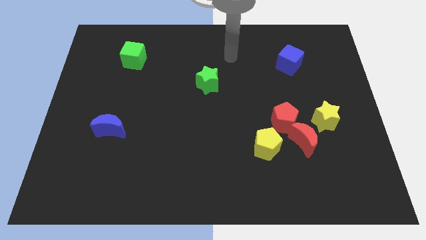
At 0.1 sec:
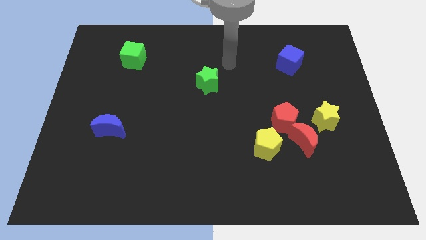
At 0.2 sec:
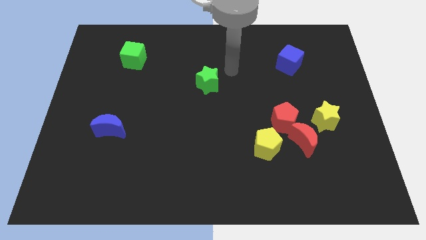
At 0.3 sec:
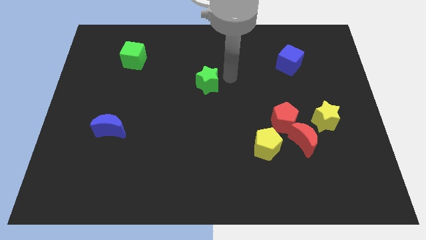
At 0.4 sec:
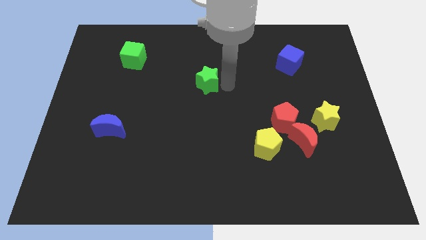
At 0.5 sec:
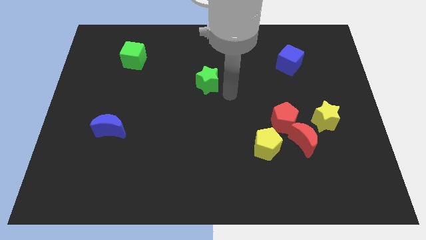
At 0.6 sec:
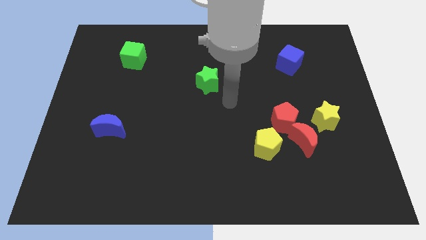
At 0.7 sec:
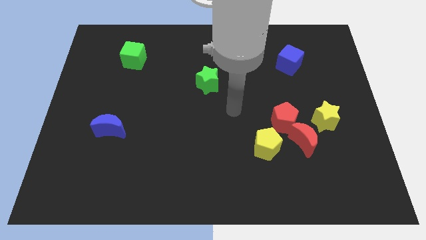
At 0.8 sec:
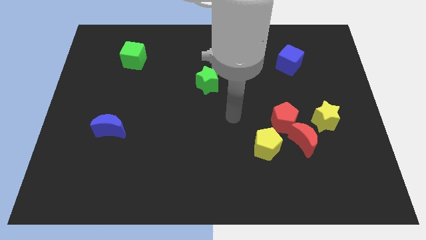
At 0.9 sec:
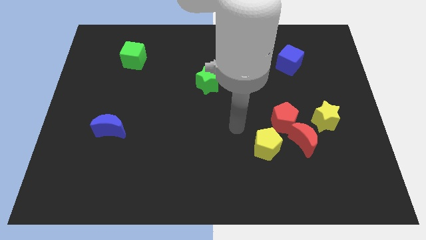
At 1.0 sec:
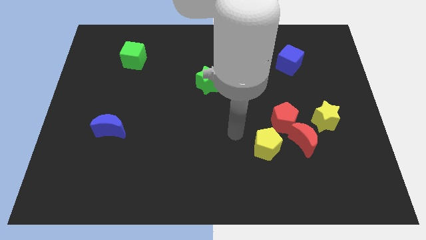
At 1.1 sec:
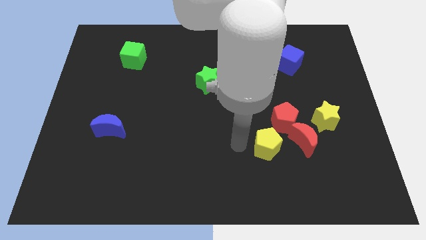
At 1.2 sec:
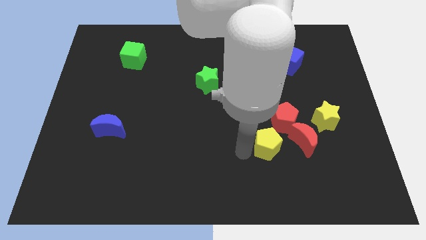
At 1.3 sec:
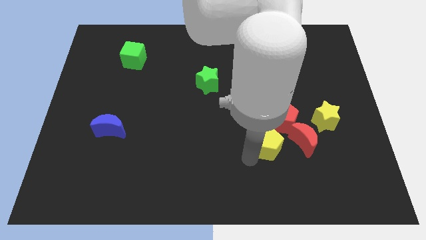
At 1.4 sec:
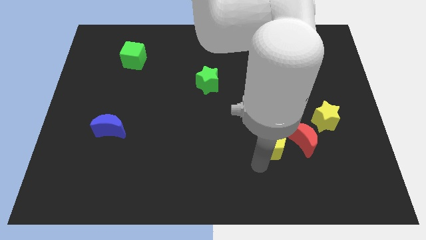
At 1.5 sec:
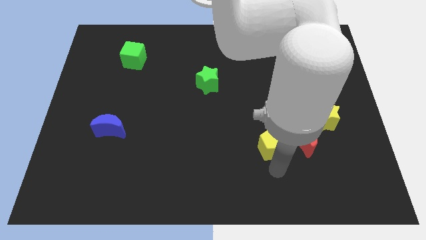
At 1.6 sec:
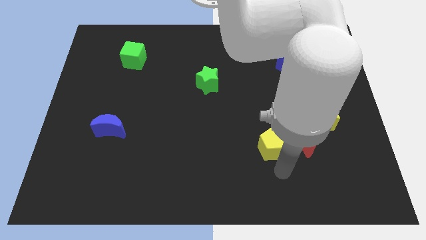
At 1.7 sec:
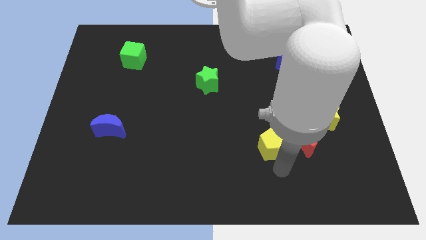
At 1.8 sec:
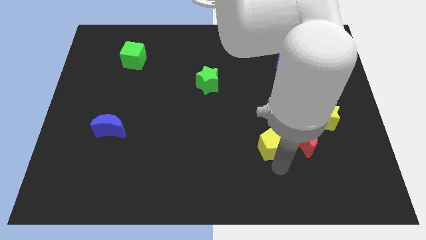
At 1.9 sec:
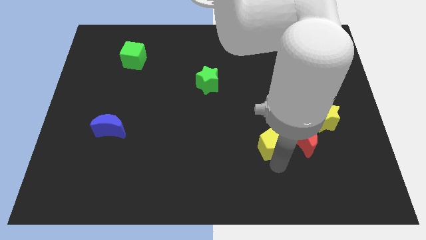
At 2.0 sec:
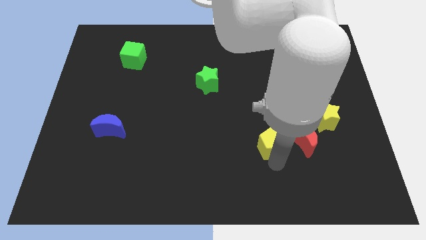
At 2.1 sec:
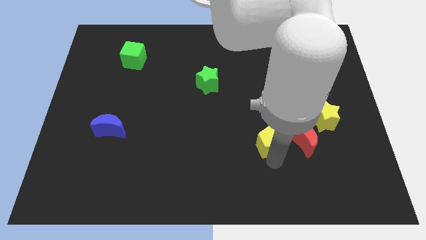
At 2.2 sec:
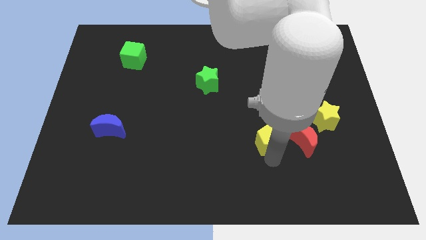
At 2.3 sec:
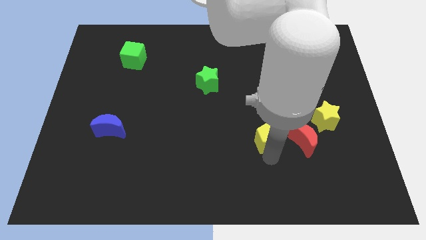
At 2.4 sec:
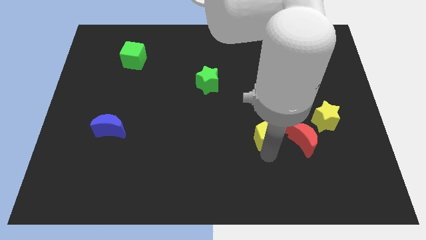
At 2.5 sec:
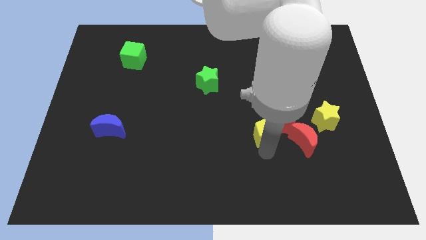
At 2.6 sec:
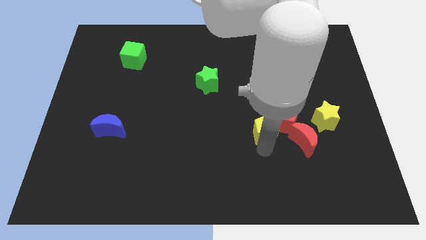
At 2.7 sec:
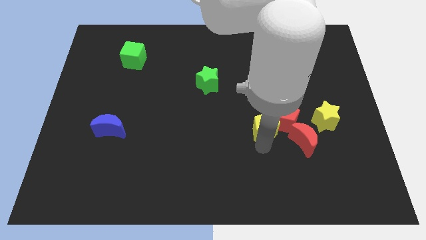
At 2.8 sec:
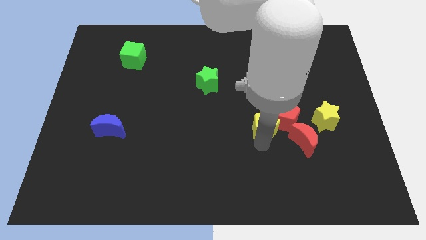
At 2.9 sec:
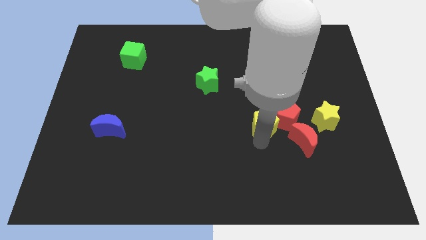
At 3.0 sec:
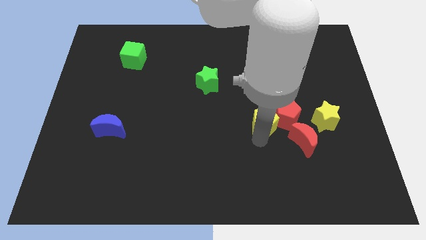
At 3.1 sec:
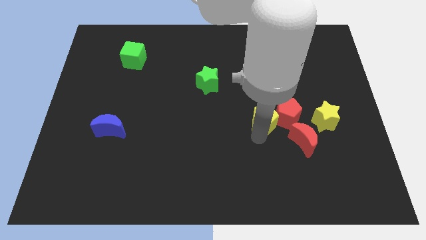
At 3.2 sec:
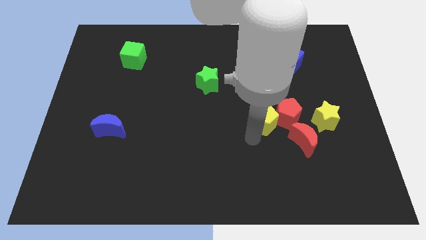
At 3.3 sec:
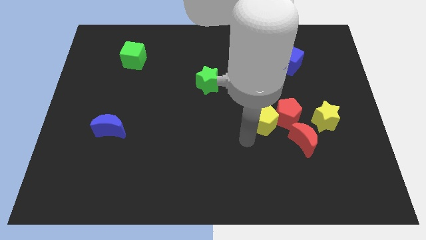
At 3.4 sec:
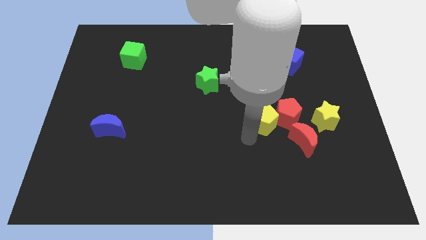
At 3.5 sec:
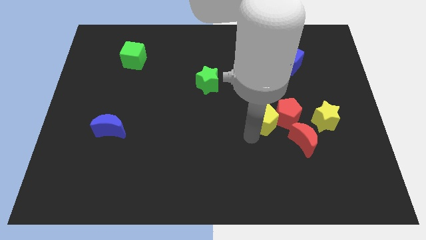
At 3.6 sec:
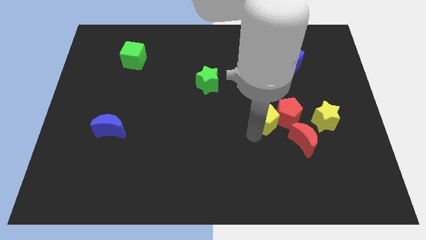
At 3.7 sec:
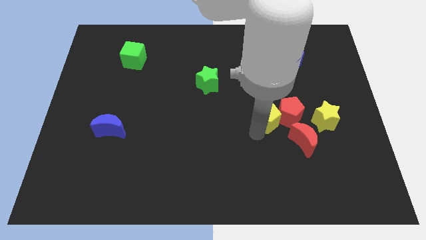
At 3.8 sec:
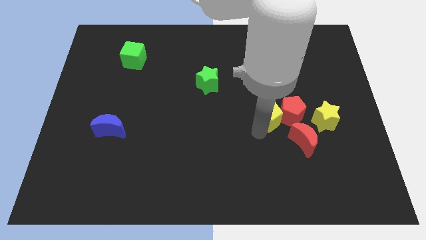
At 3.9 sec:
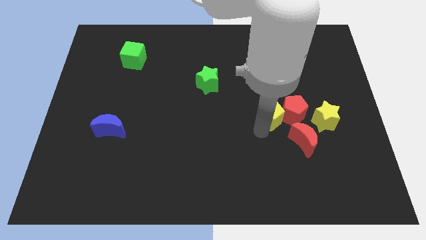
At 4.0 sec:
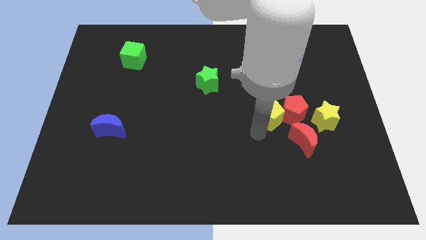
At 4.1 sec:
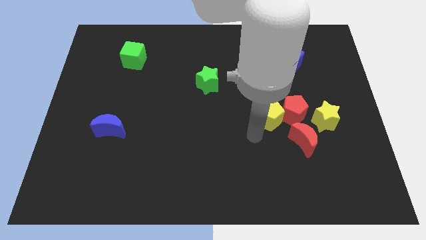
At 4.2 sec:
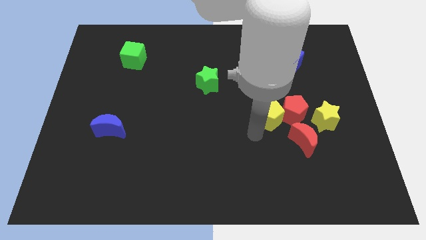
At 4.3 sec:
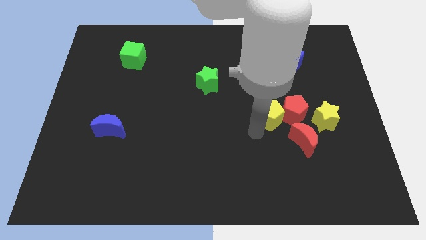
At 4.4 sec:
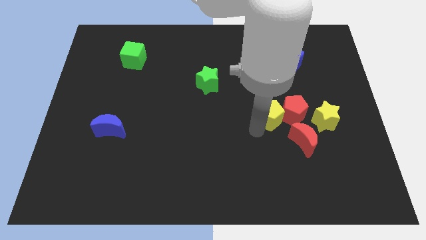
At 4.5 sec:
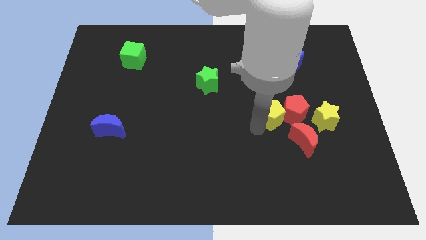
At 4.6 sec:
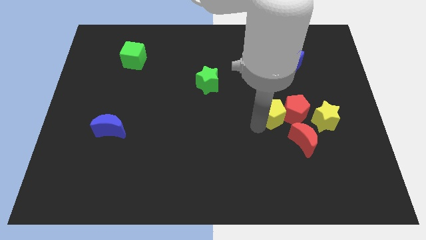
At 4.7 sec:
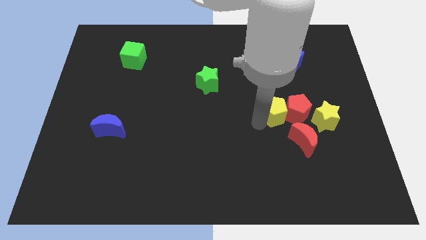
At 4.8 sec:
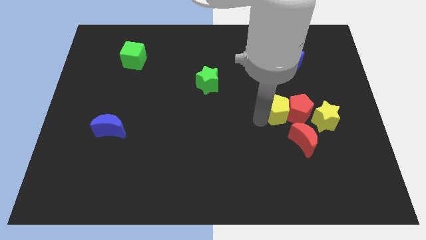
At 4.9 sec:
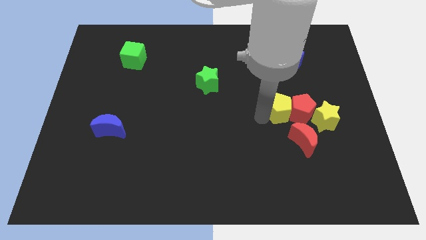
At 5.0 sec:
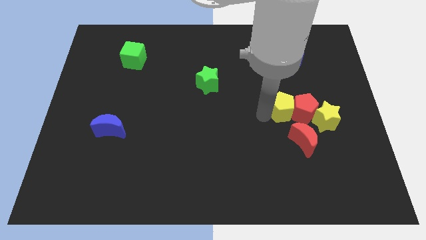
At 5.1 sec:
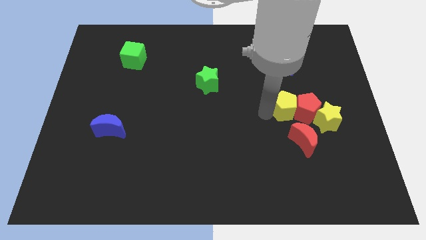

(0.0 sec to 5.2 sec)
put the yellow pentagon to the bottom of the blue cube

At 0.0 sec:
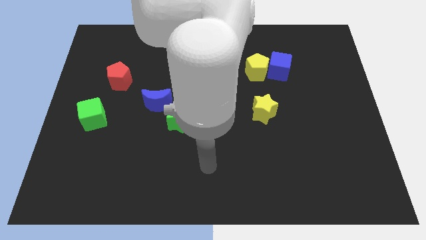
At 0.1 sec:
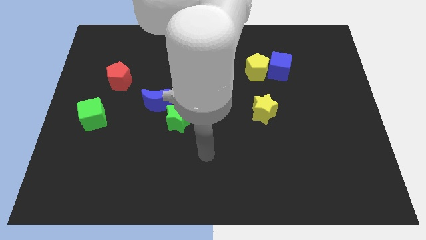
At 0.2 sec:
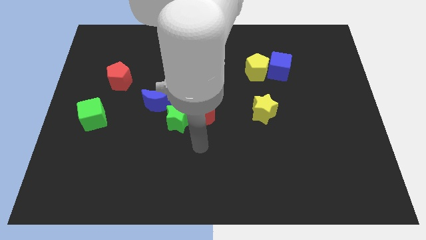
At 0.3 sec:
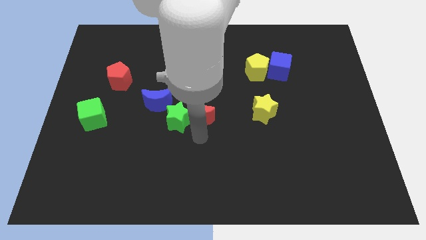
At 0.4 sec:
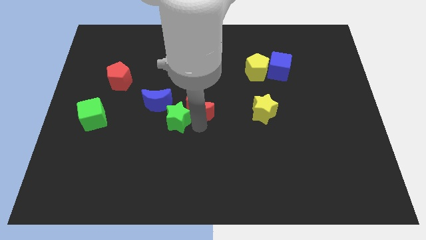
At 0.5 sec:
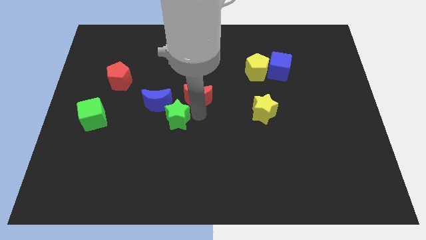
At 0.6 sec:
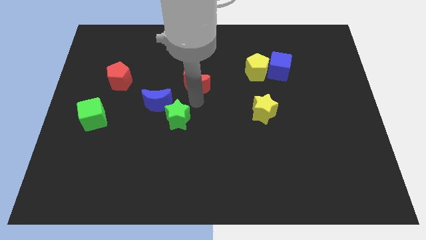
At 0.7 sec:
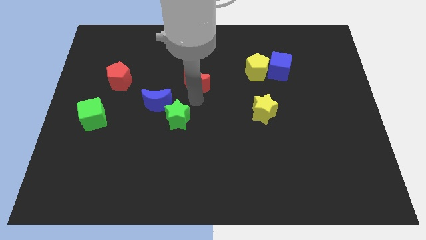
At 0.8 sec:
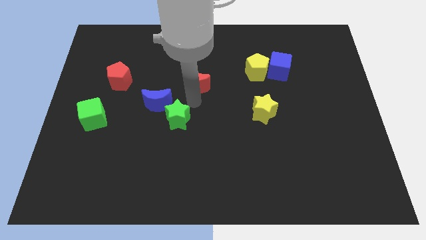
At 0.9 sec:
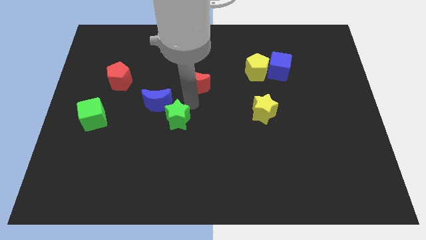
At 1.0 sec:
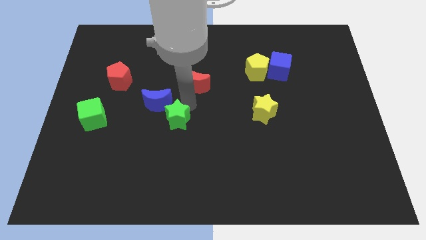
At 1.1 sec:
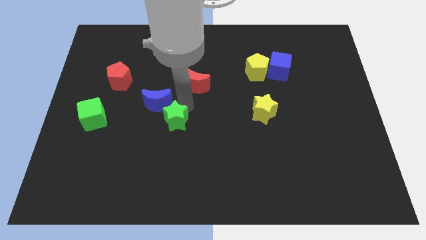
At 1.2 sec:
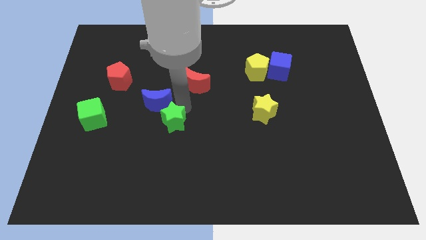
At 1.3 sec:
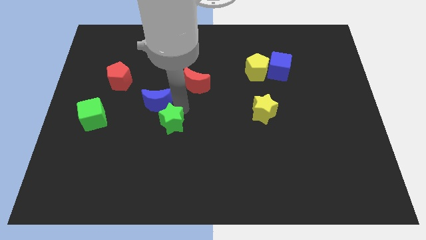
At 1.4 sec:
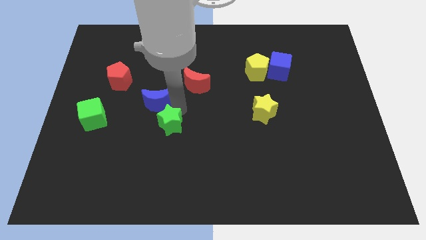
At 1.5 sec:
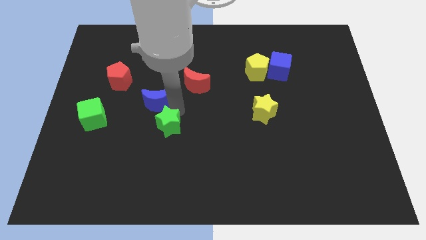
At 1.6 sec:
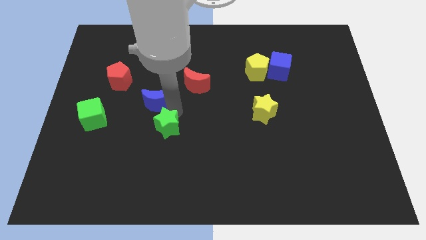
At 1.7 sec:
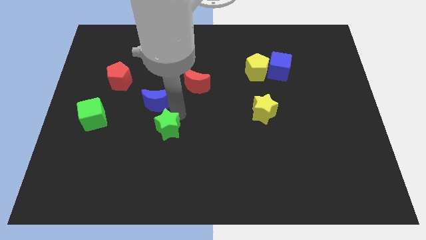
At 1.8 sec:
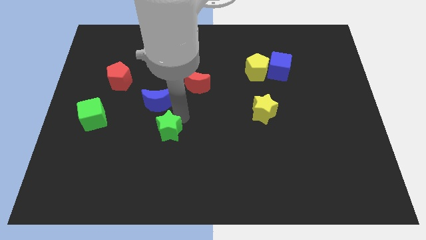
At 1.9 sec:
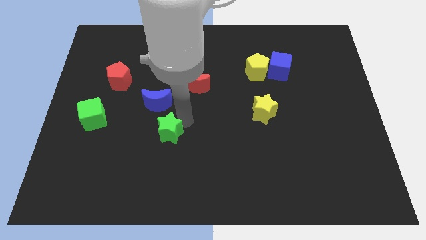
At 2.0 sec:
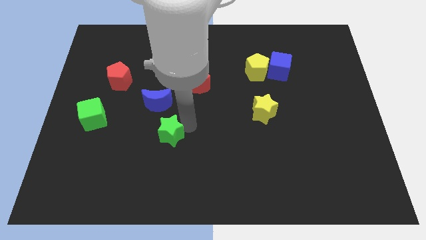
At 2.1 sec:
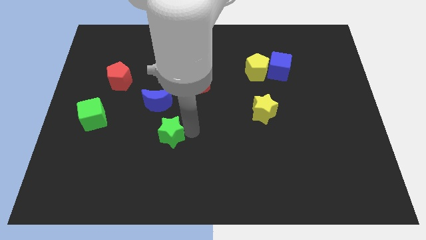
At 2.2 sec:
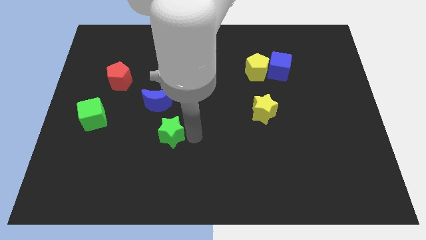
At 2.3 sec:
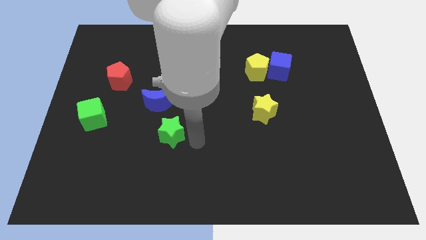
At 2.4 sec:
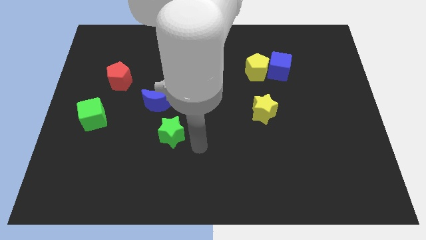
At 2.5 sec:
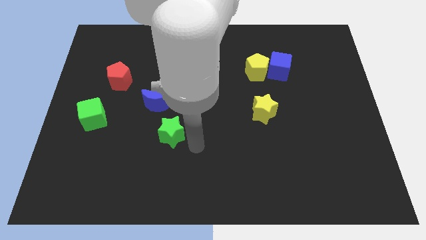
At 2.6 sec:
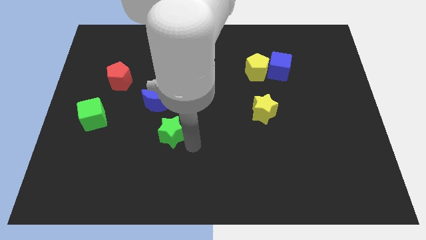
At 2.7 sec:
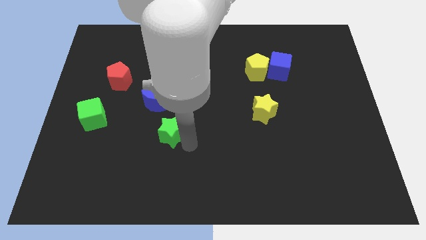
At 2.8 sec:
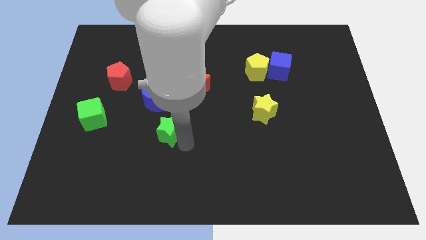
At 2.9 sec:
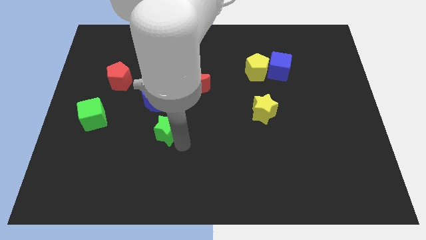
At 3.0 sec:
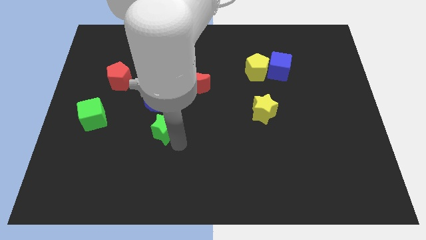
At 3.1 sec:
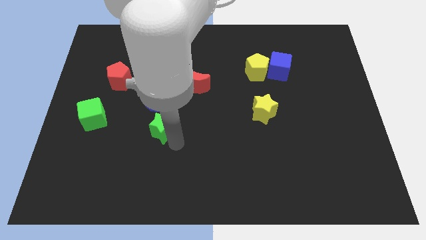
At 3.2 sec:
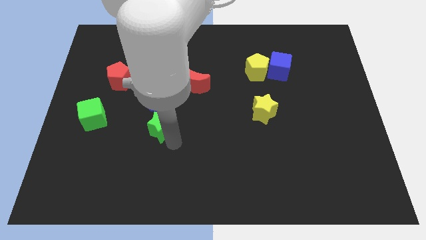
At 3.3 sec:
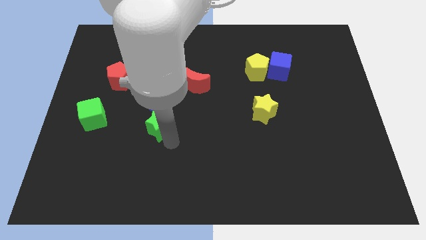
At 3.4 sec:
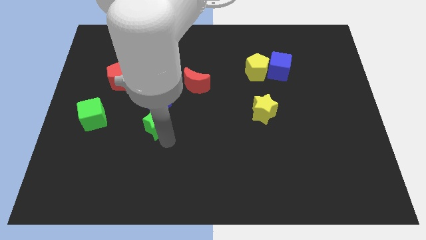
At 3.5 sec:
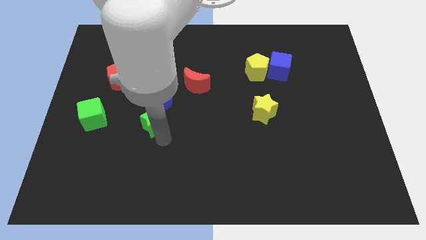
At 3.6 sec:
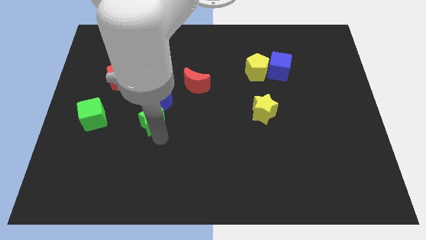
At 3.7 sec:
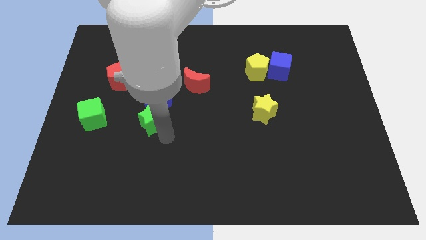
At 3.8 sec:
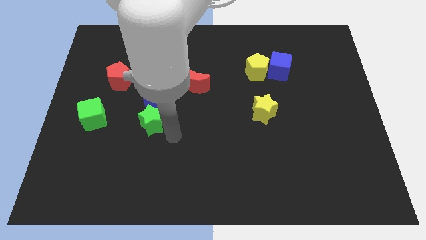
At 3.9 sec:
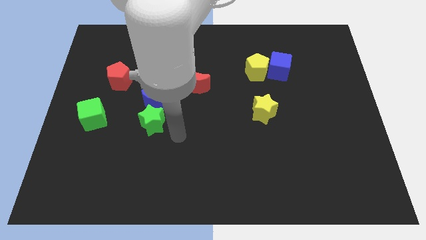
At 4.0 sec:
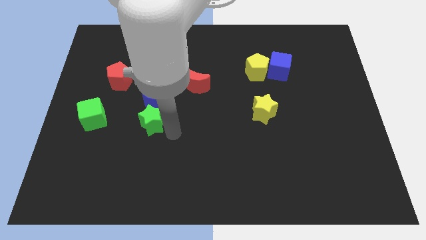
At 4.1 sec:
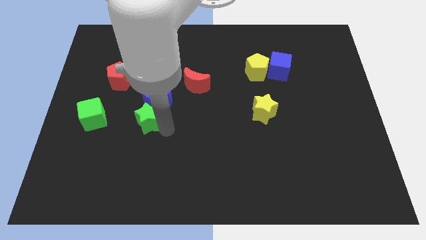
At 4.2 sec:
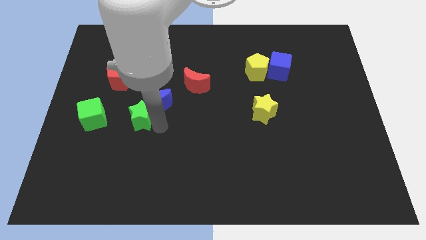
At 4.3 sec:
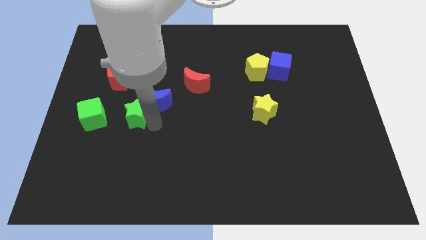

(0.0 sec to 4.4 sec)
move the green star to the left of the blue moon
